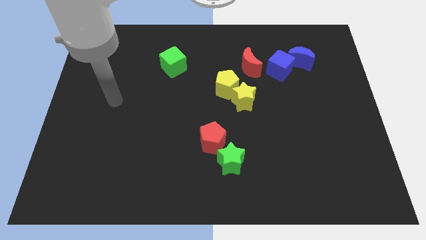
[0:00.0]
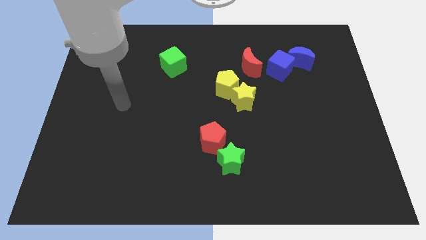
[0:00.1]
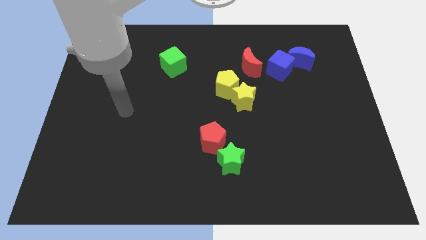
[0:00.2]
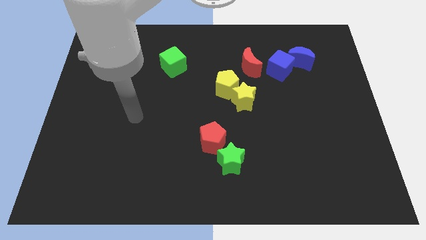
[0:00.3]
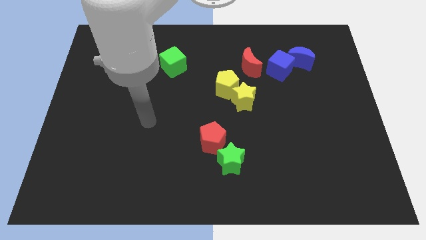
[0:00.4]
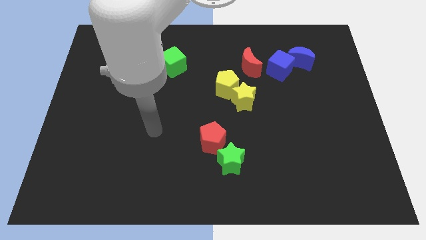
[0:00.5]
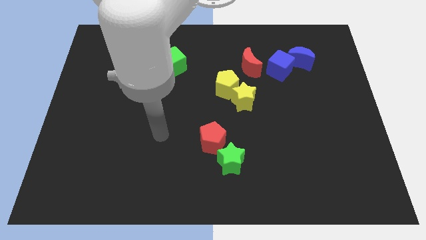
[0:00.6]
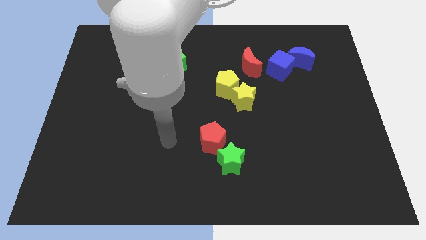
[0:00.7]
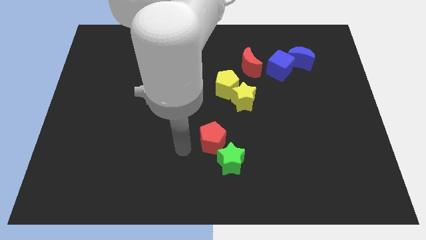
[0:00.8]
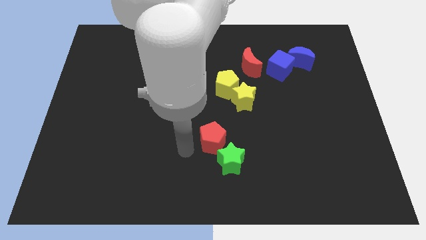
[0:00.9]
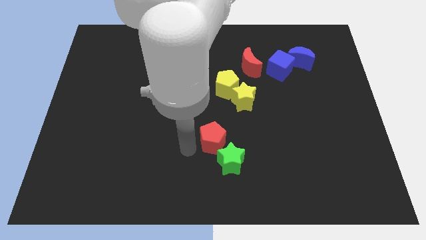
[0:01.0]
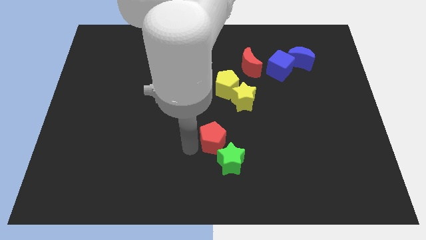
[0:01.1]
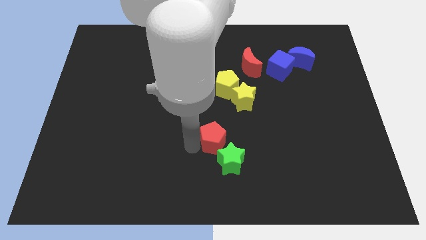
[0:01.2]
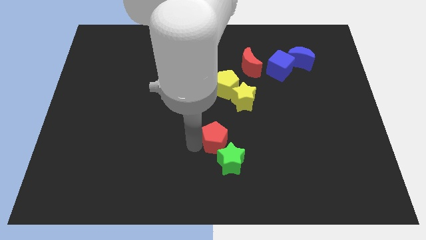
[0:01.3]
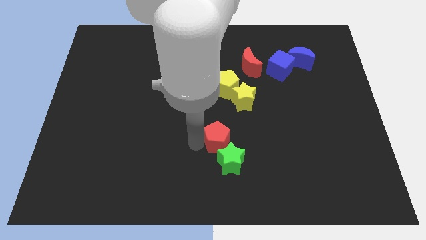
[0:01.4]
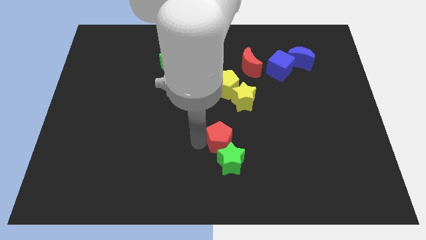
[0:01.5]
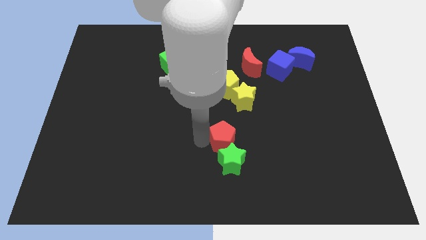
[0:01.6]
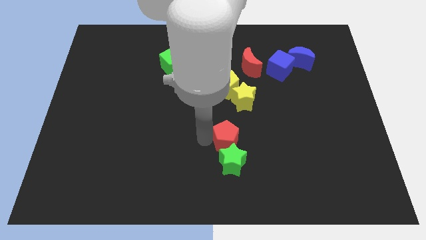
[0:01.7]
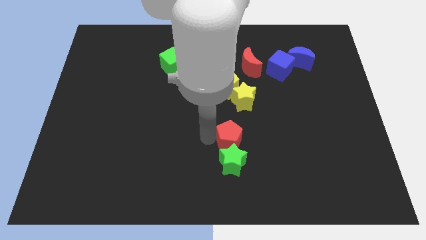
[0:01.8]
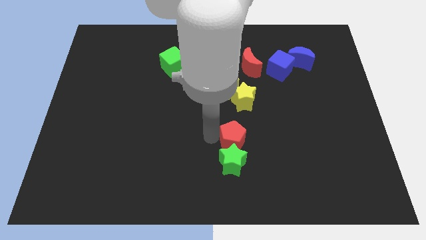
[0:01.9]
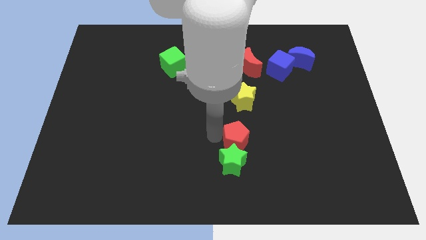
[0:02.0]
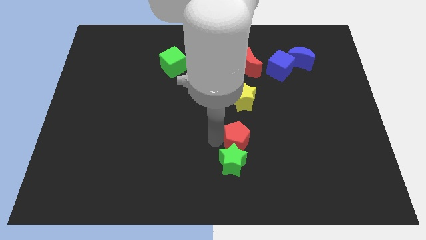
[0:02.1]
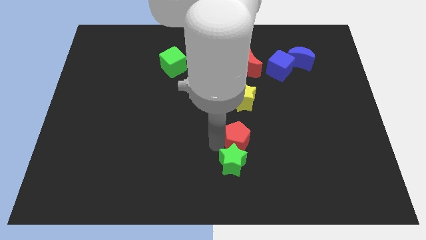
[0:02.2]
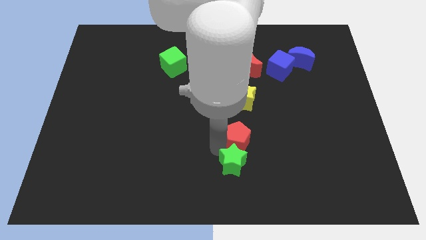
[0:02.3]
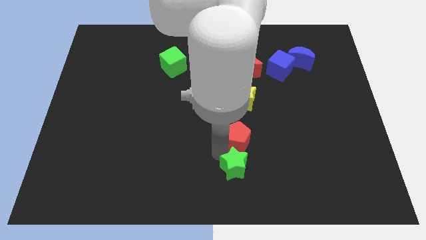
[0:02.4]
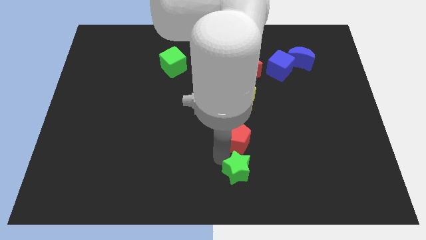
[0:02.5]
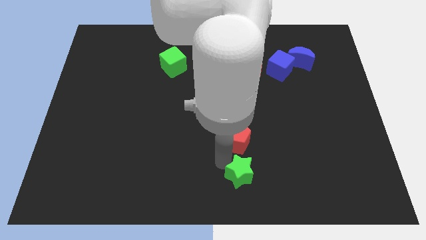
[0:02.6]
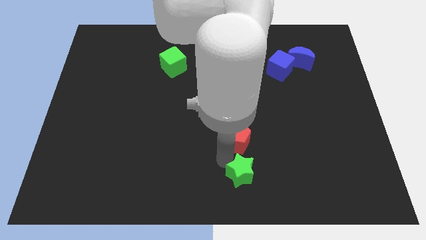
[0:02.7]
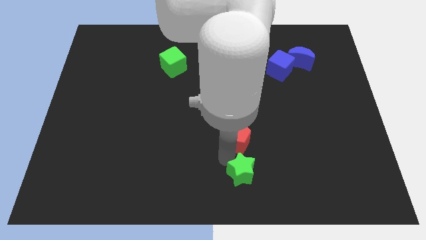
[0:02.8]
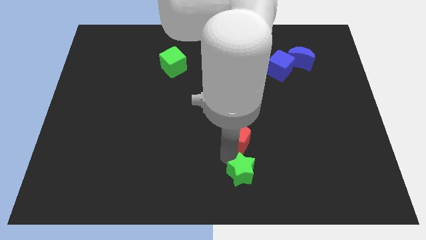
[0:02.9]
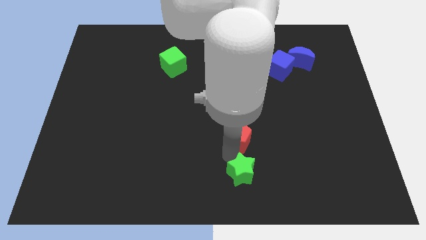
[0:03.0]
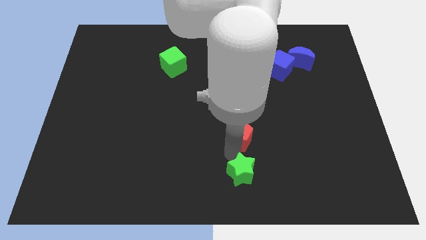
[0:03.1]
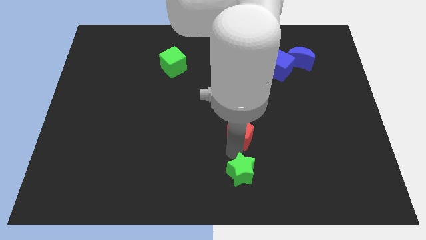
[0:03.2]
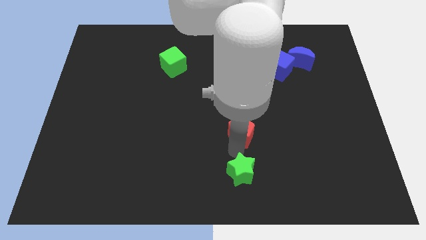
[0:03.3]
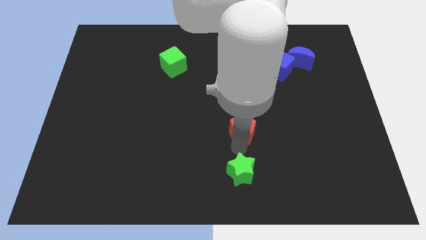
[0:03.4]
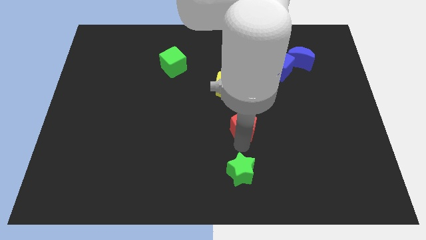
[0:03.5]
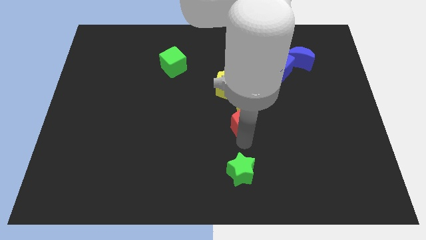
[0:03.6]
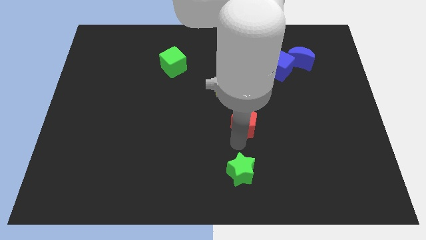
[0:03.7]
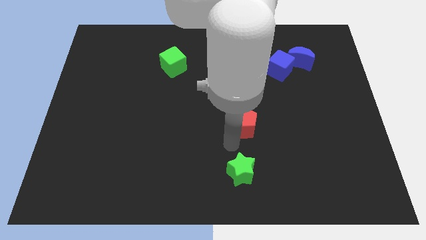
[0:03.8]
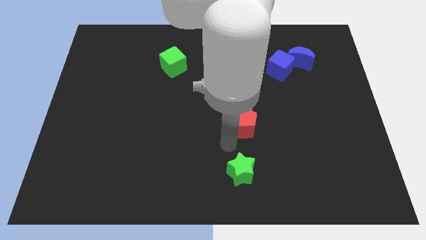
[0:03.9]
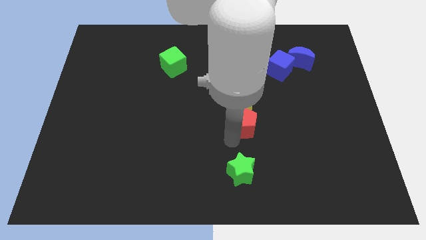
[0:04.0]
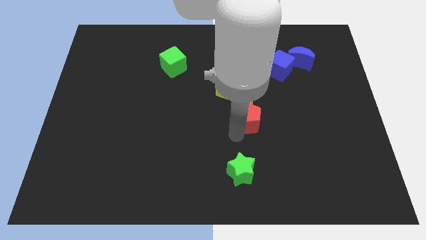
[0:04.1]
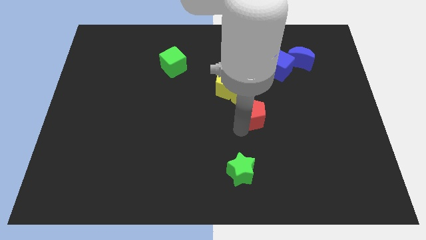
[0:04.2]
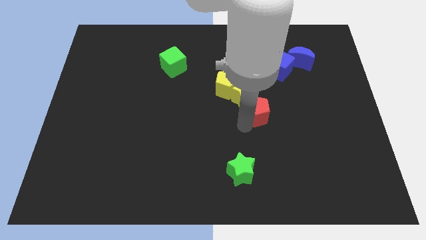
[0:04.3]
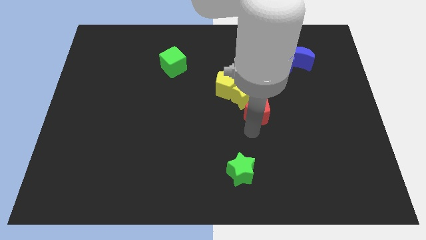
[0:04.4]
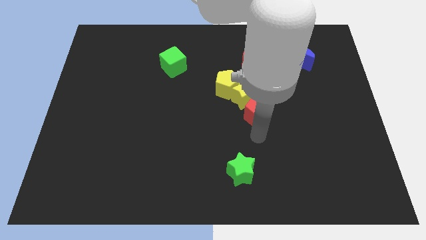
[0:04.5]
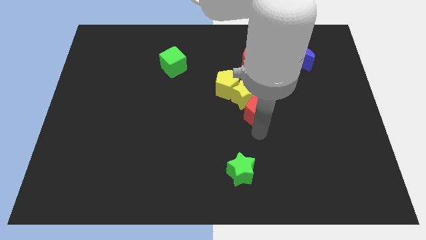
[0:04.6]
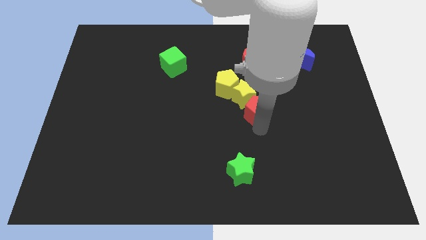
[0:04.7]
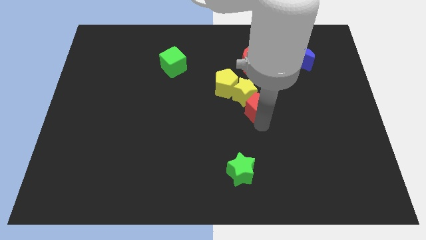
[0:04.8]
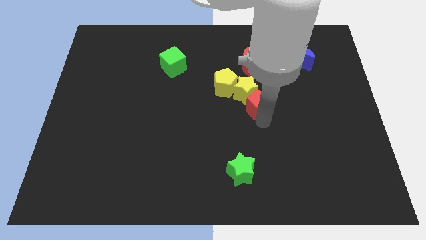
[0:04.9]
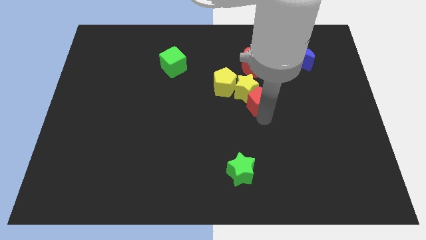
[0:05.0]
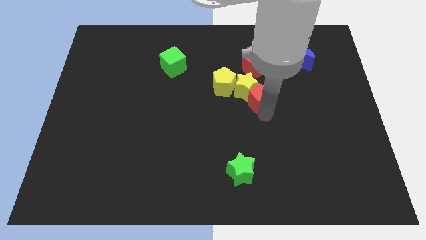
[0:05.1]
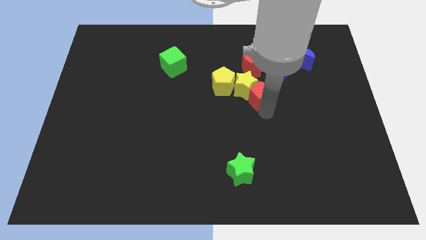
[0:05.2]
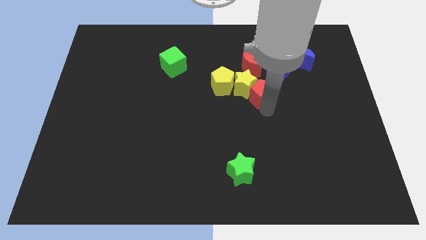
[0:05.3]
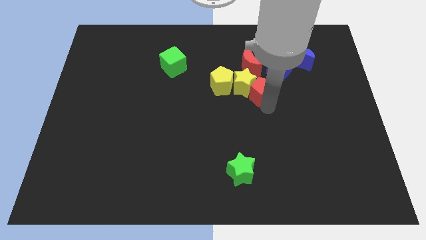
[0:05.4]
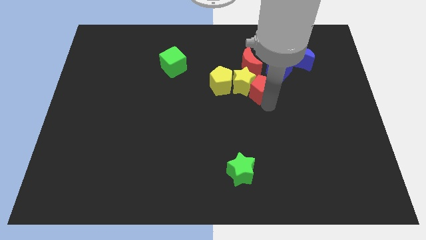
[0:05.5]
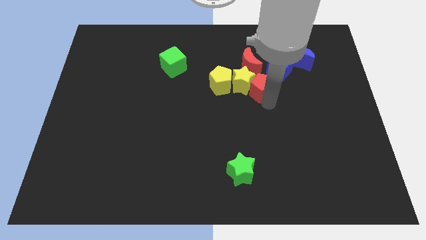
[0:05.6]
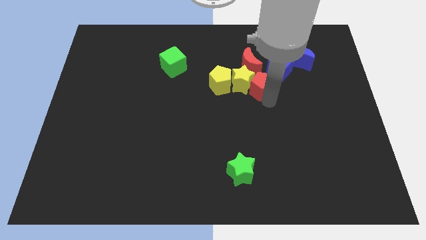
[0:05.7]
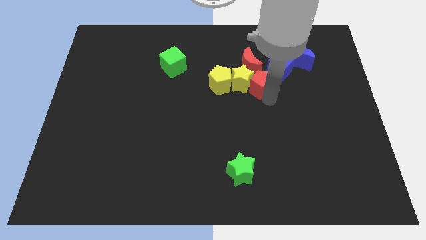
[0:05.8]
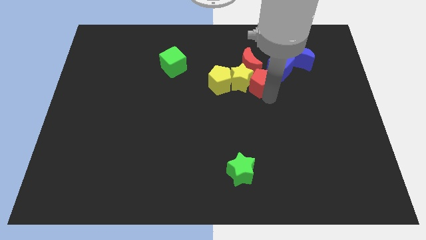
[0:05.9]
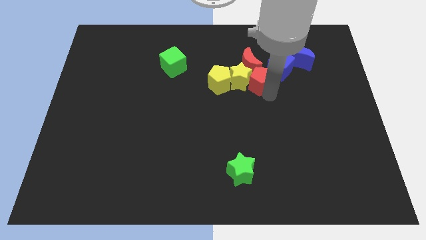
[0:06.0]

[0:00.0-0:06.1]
slide the red pentagon close to the red moon

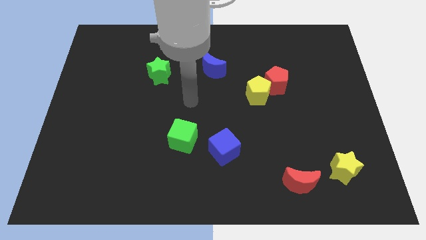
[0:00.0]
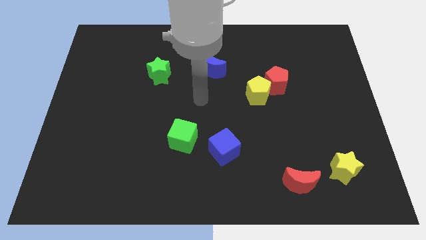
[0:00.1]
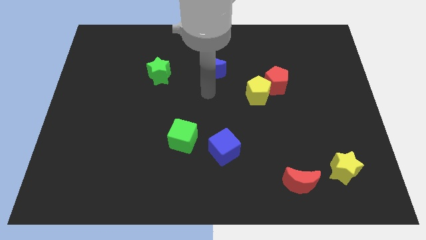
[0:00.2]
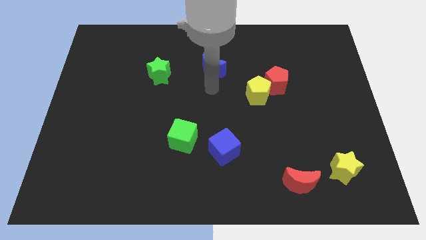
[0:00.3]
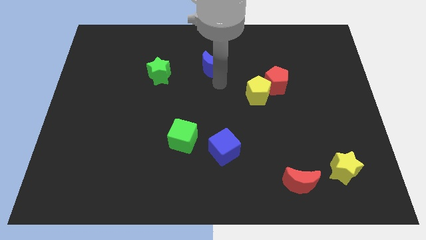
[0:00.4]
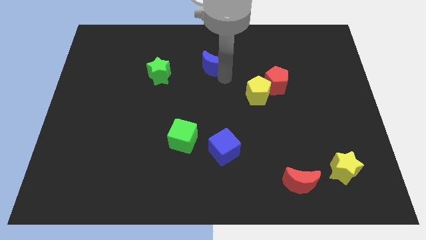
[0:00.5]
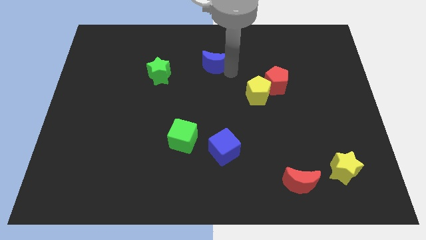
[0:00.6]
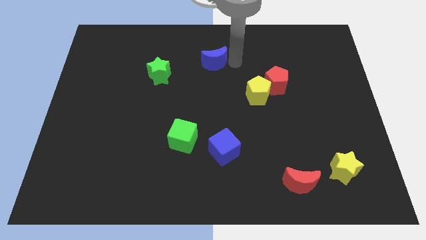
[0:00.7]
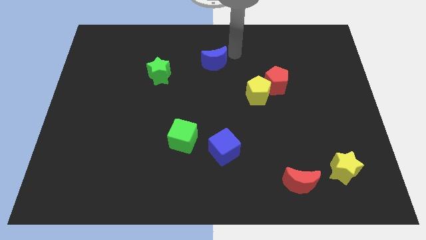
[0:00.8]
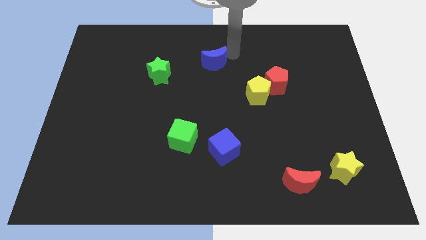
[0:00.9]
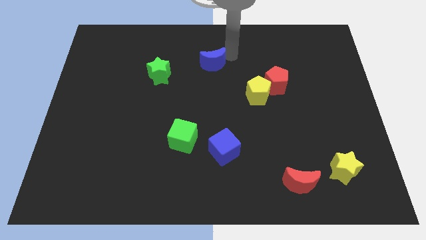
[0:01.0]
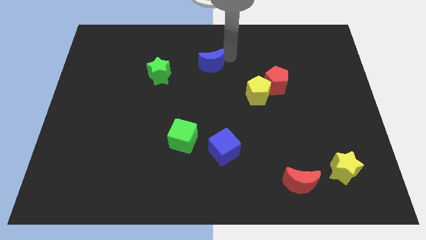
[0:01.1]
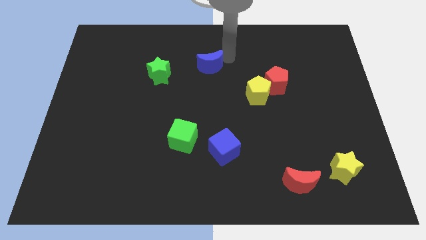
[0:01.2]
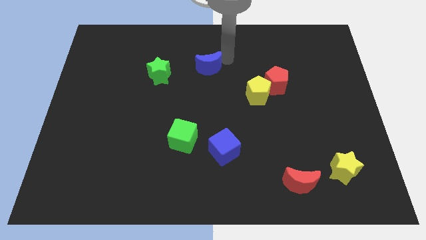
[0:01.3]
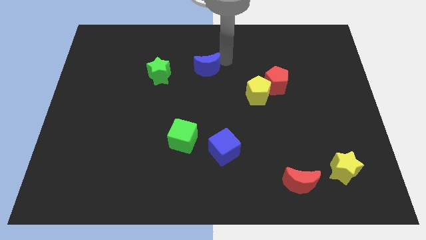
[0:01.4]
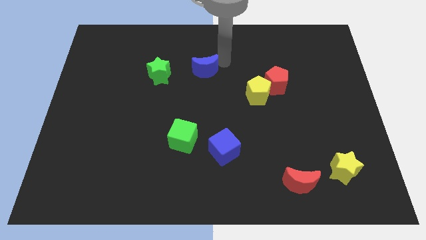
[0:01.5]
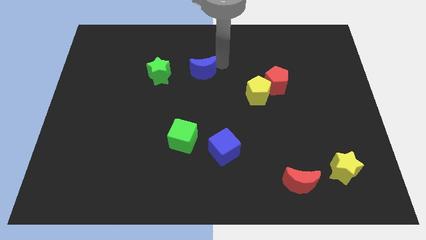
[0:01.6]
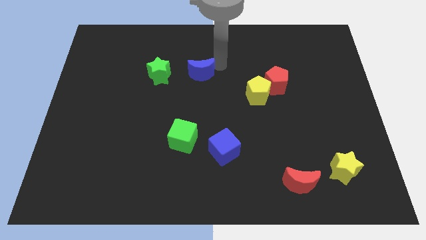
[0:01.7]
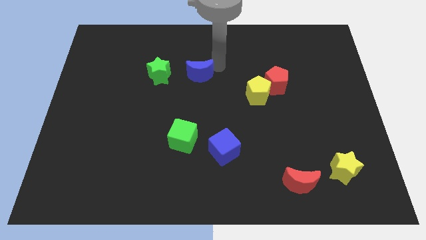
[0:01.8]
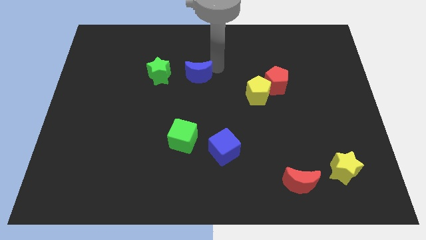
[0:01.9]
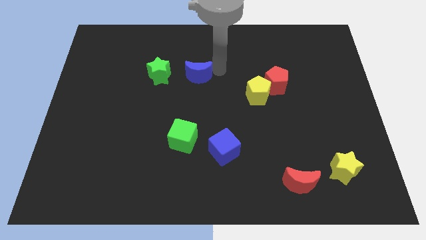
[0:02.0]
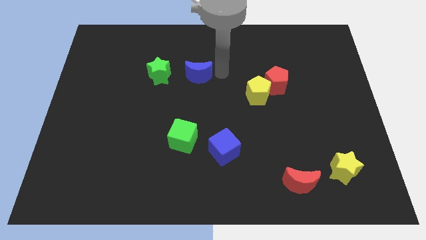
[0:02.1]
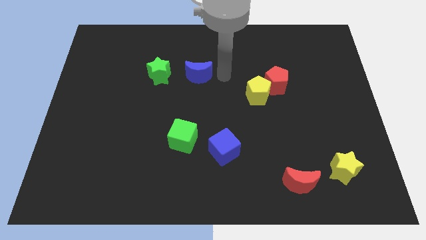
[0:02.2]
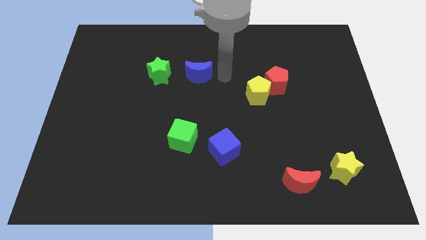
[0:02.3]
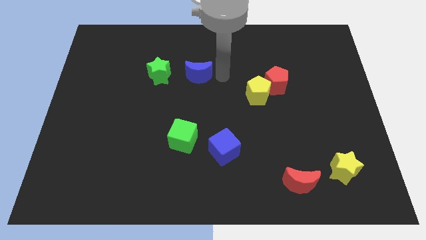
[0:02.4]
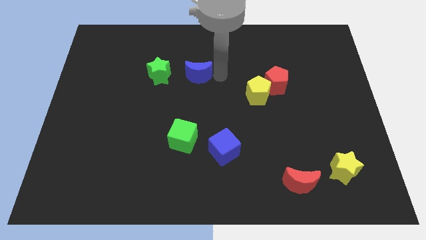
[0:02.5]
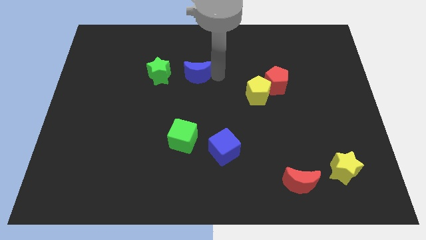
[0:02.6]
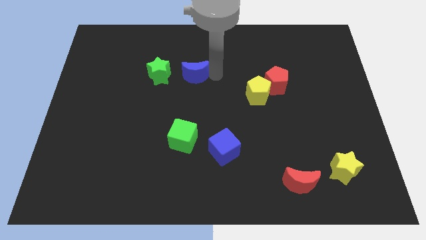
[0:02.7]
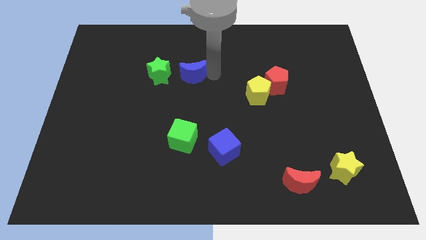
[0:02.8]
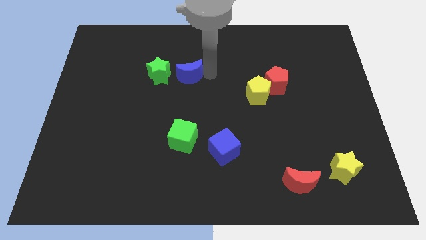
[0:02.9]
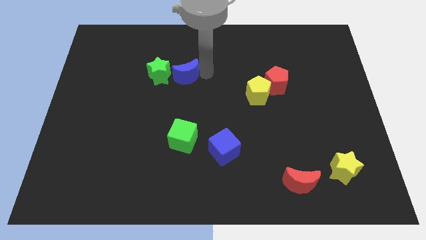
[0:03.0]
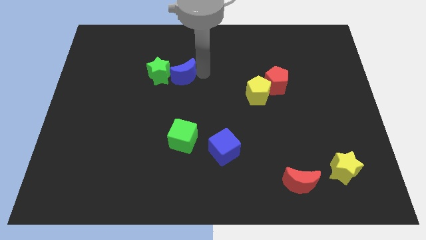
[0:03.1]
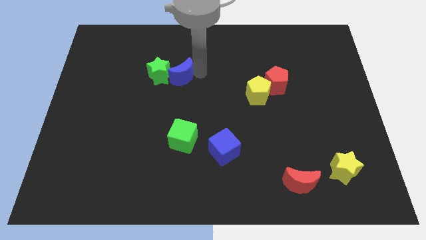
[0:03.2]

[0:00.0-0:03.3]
put the blue moon to the green star
